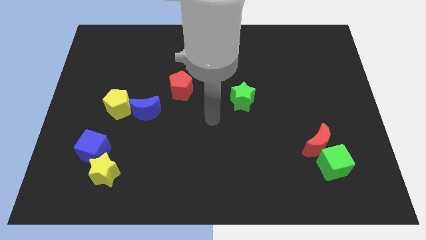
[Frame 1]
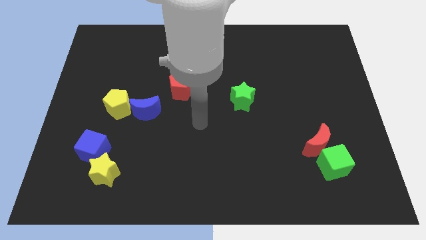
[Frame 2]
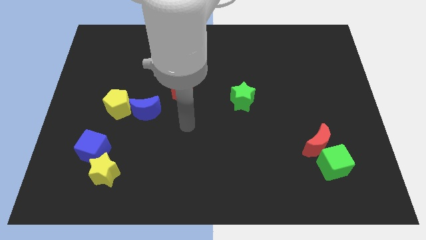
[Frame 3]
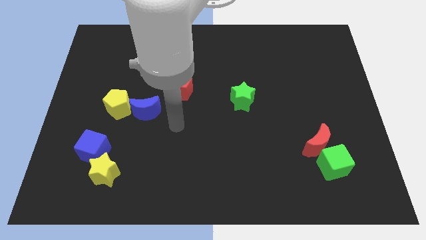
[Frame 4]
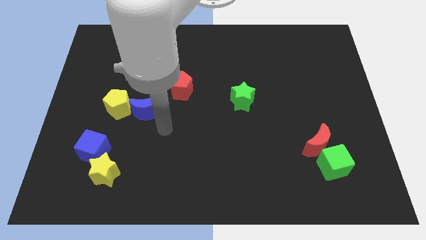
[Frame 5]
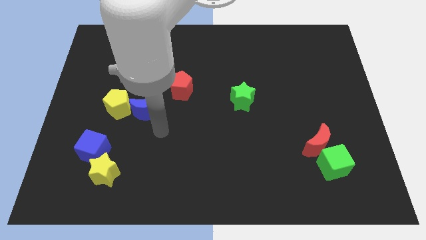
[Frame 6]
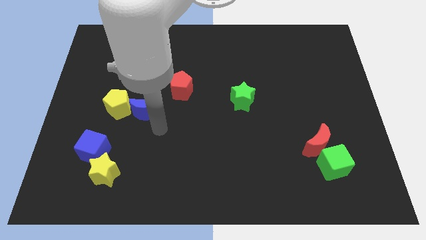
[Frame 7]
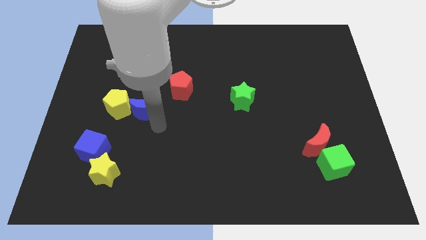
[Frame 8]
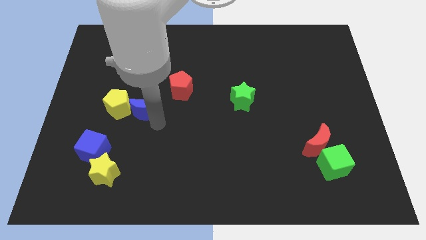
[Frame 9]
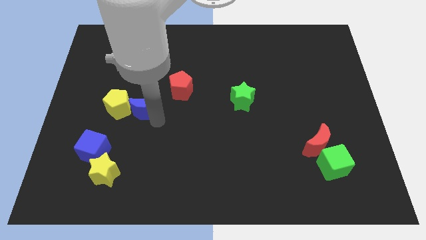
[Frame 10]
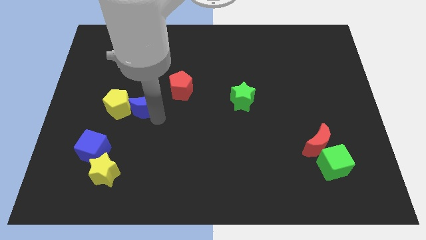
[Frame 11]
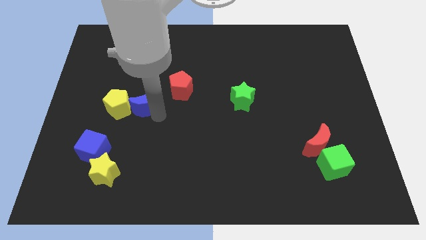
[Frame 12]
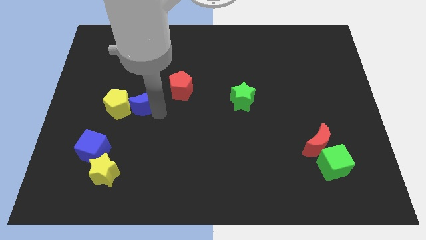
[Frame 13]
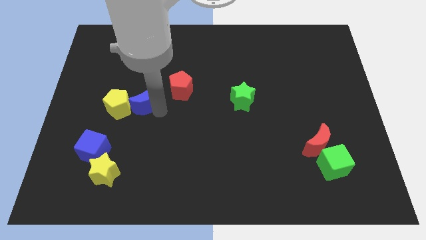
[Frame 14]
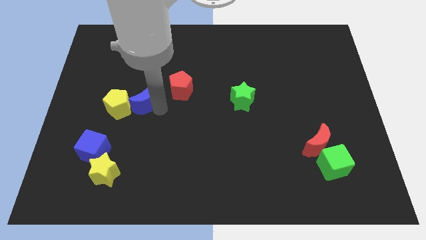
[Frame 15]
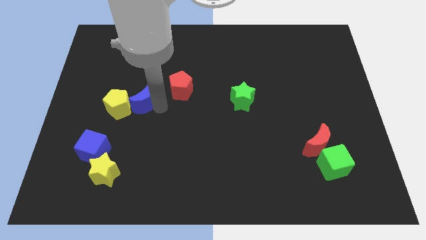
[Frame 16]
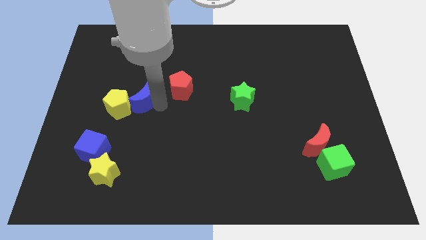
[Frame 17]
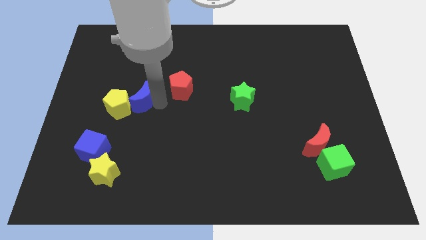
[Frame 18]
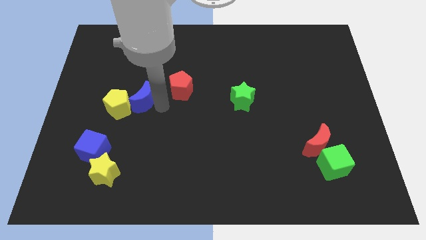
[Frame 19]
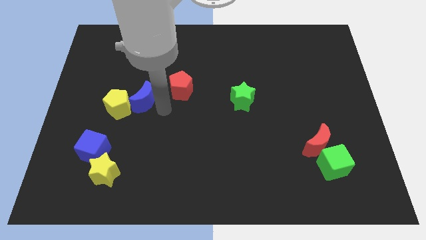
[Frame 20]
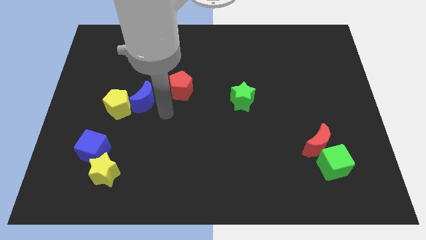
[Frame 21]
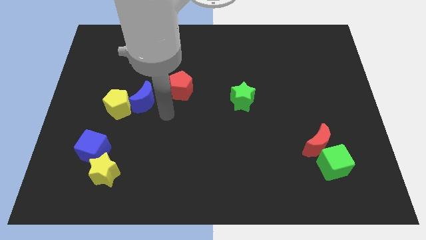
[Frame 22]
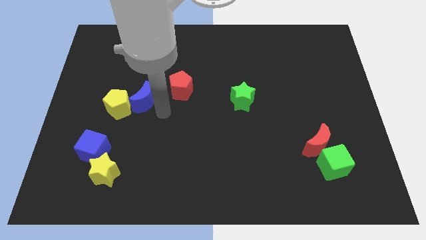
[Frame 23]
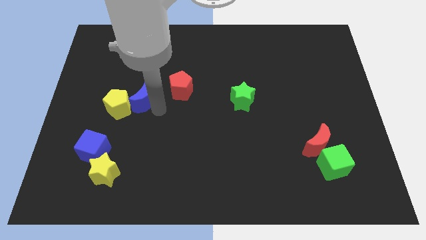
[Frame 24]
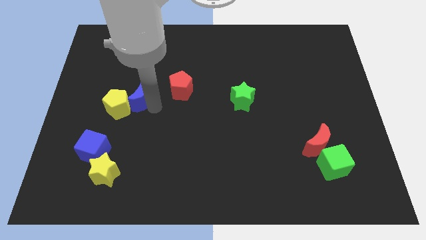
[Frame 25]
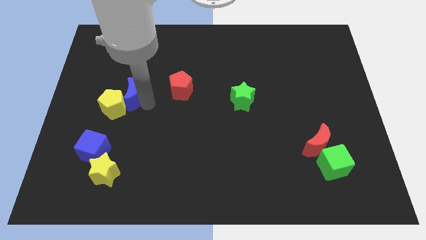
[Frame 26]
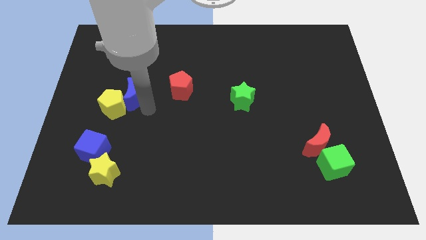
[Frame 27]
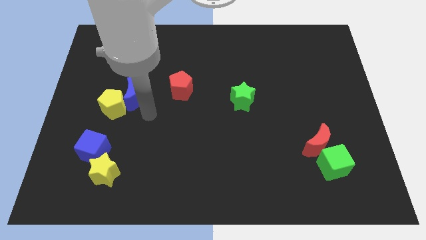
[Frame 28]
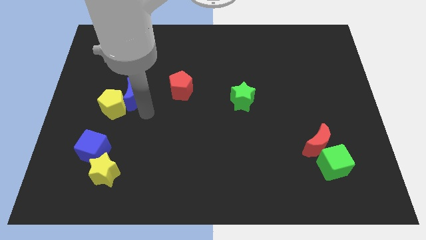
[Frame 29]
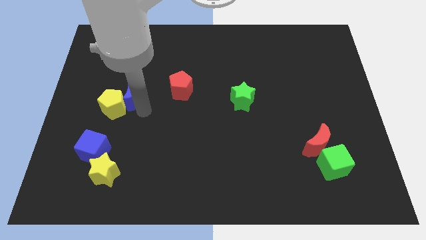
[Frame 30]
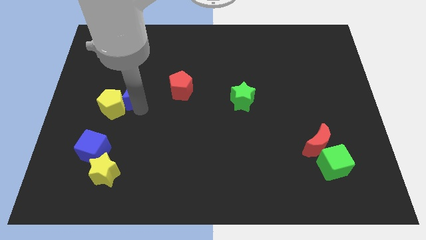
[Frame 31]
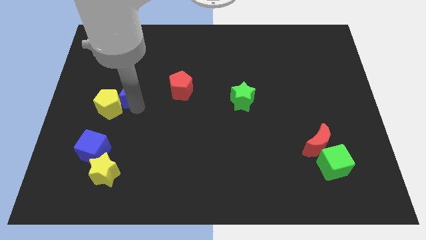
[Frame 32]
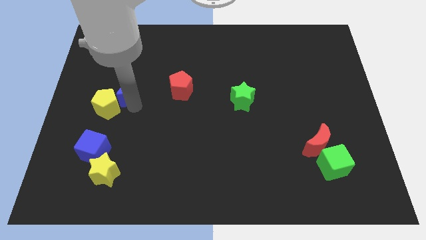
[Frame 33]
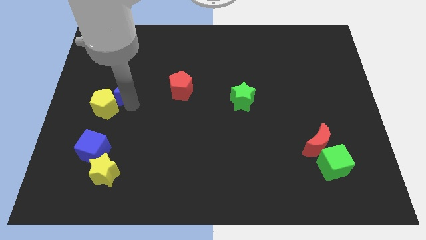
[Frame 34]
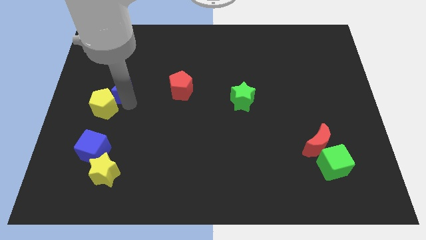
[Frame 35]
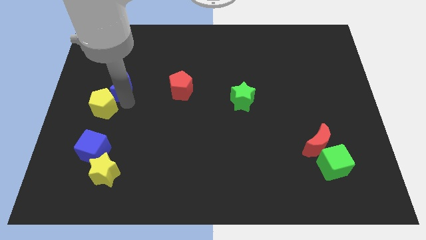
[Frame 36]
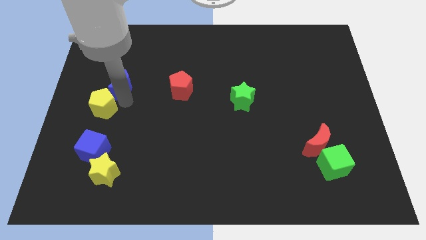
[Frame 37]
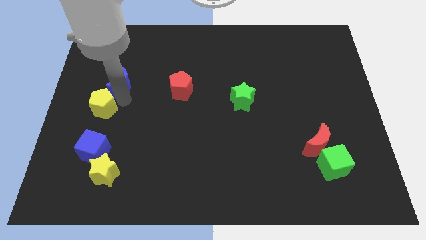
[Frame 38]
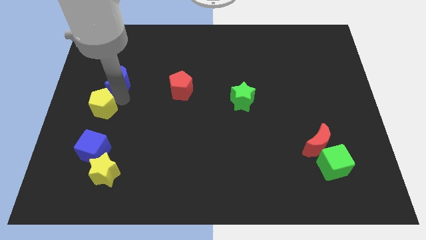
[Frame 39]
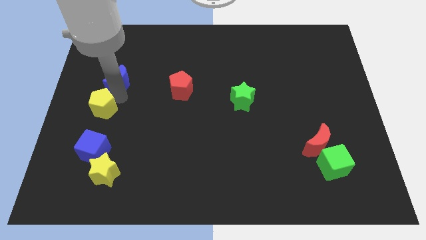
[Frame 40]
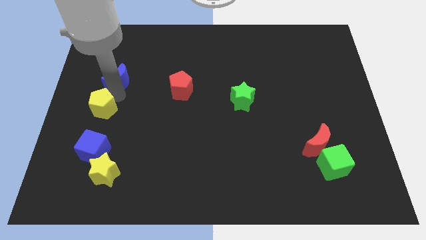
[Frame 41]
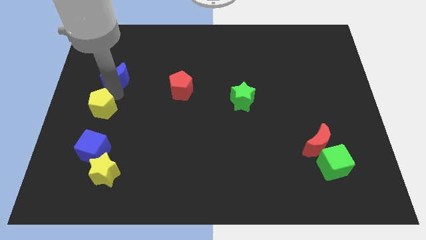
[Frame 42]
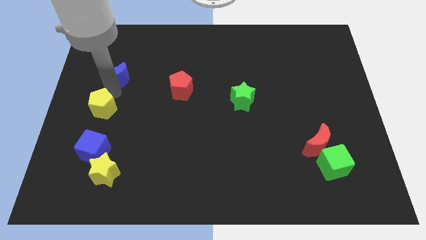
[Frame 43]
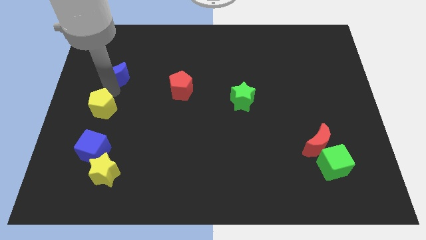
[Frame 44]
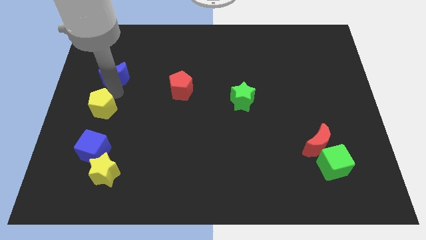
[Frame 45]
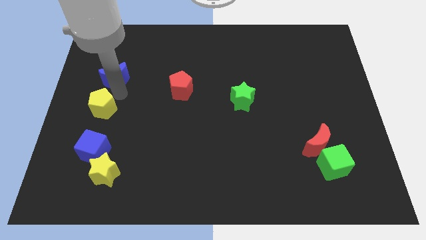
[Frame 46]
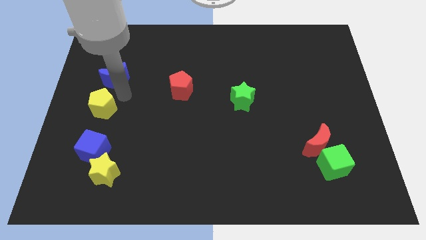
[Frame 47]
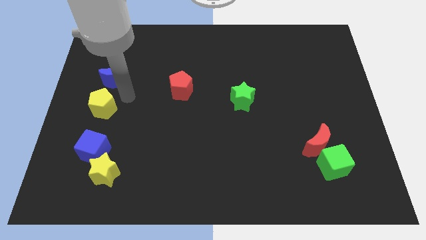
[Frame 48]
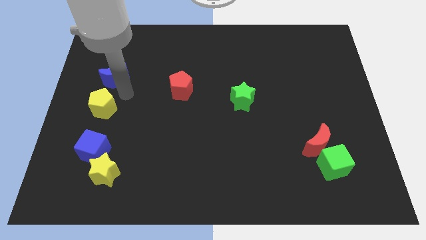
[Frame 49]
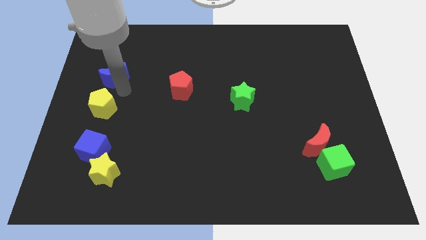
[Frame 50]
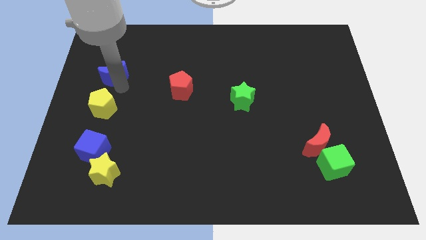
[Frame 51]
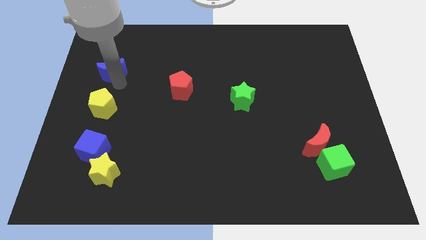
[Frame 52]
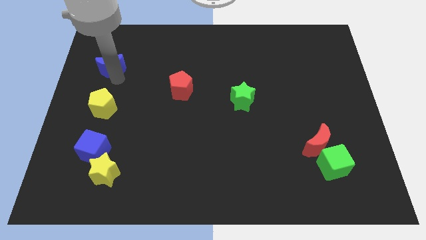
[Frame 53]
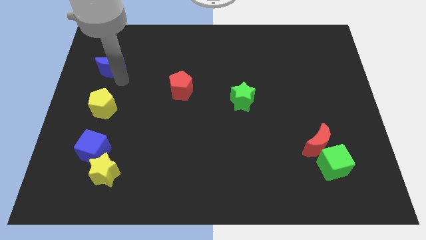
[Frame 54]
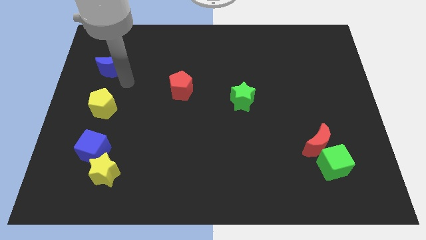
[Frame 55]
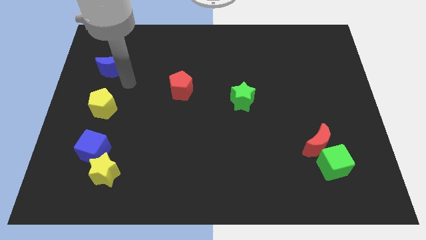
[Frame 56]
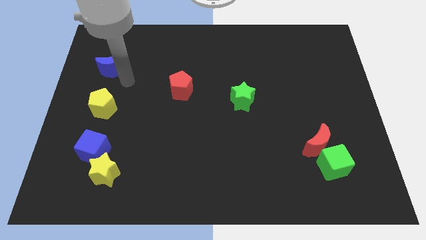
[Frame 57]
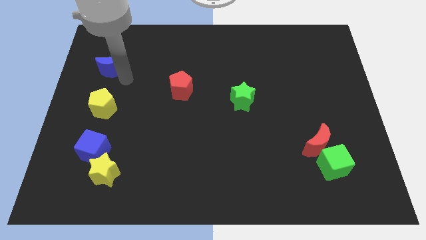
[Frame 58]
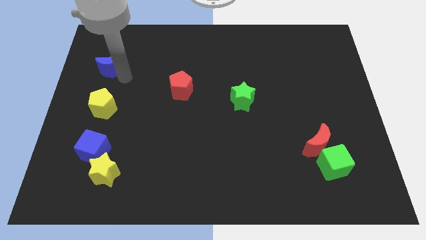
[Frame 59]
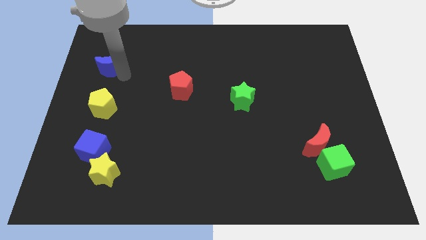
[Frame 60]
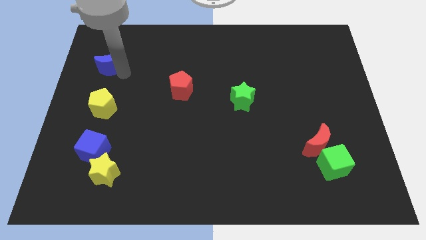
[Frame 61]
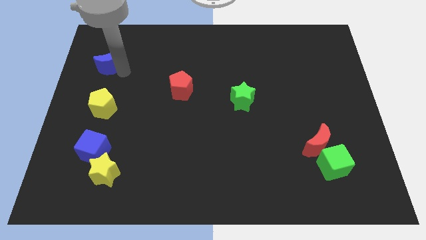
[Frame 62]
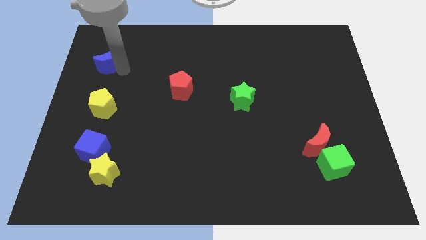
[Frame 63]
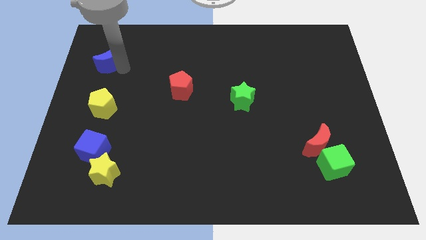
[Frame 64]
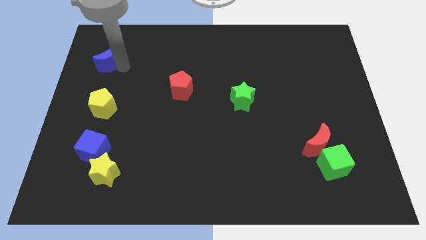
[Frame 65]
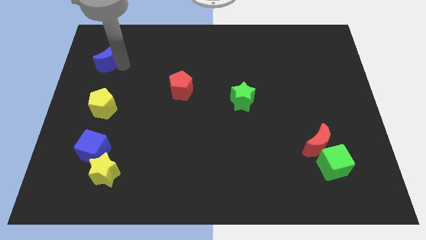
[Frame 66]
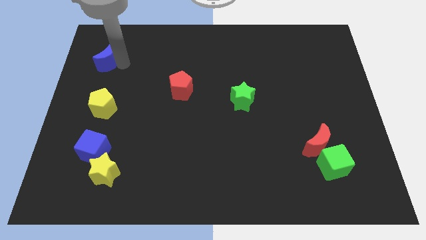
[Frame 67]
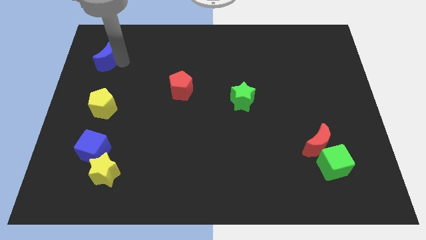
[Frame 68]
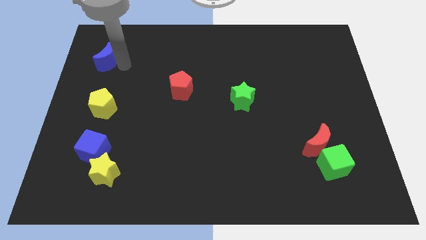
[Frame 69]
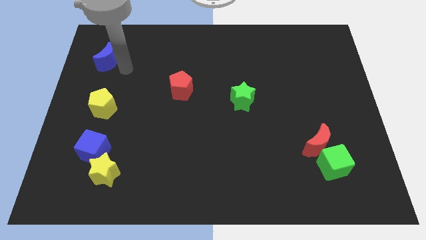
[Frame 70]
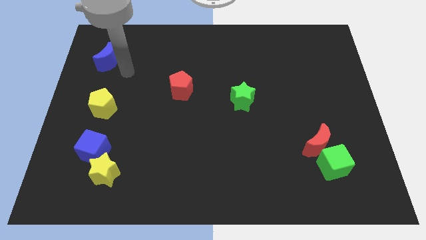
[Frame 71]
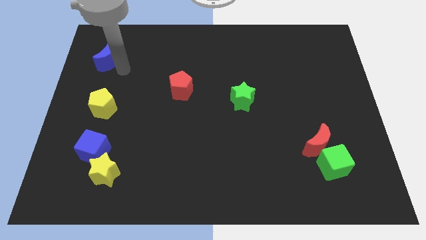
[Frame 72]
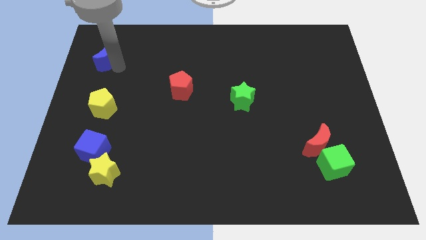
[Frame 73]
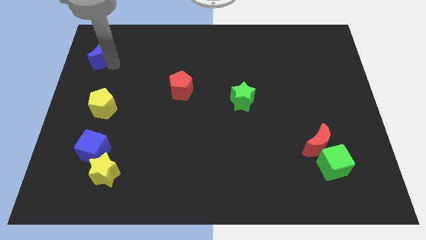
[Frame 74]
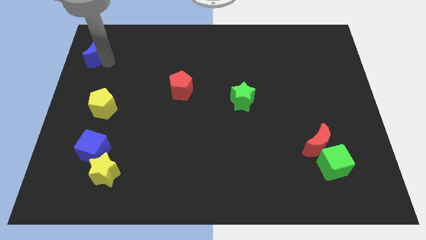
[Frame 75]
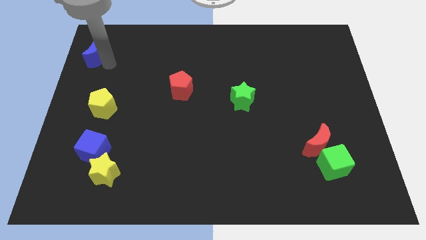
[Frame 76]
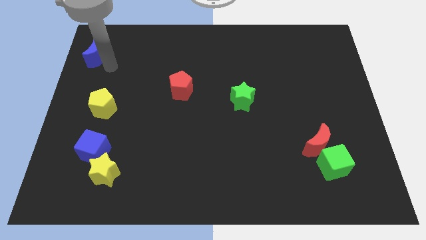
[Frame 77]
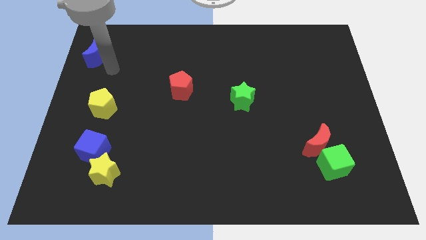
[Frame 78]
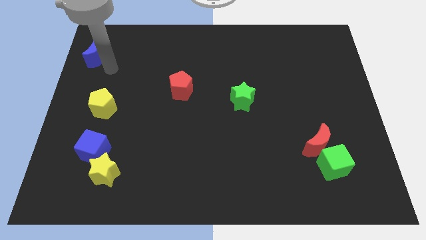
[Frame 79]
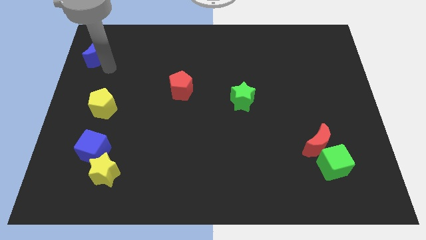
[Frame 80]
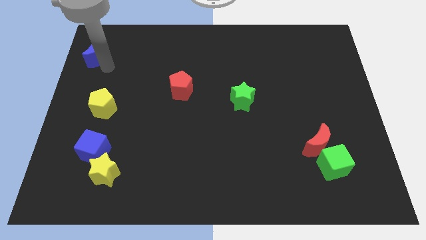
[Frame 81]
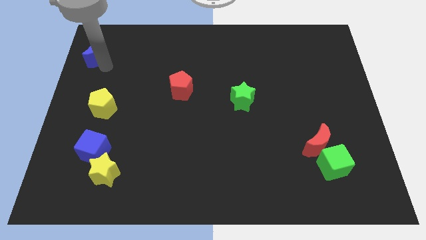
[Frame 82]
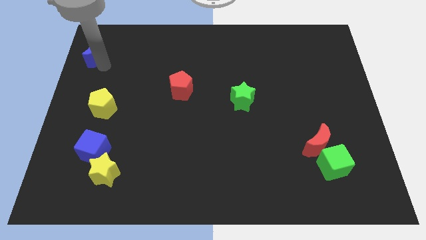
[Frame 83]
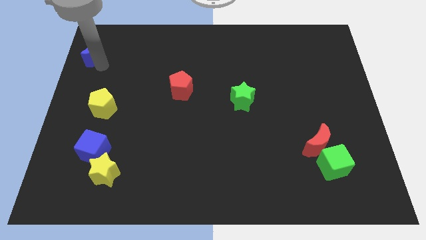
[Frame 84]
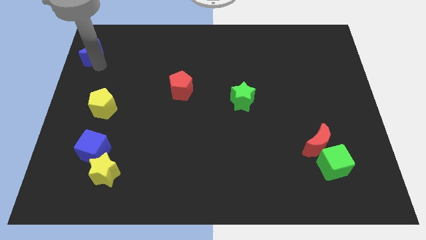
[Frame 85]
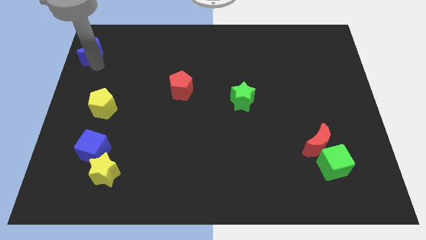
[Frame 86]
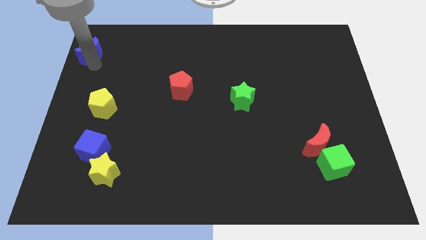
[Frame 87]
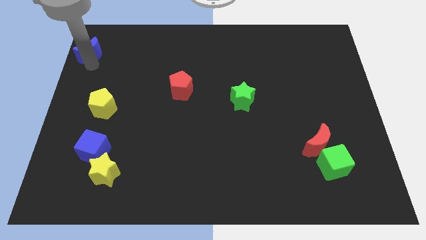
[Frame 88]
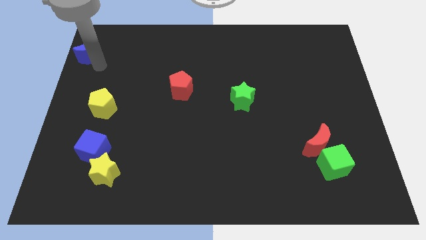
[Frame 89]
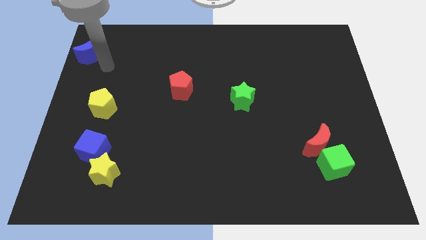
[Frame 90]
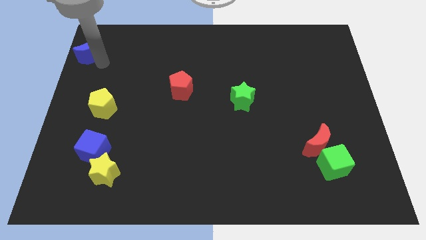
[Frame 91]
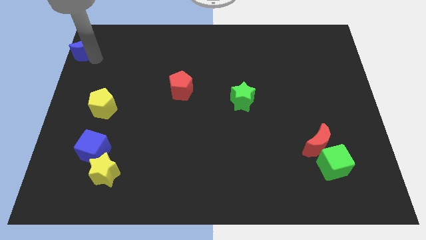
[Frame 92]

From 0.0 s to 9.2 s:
put the blue moon to the top left
